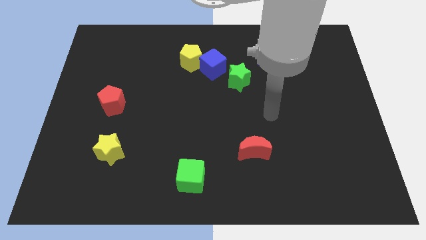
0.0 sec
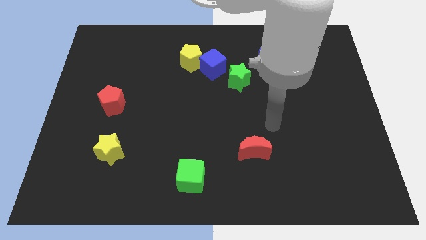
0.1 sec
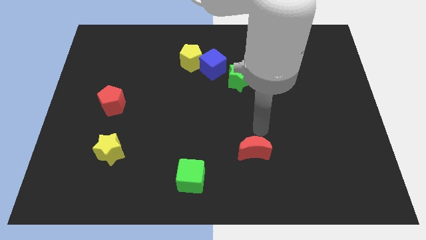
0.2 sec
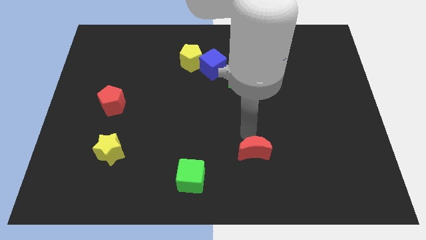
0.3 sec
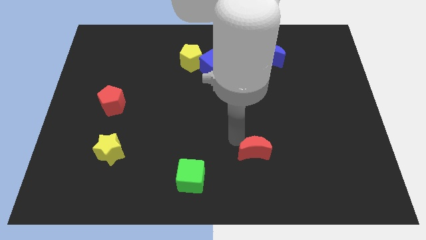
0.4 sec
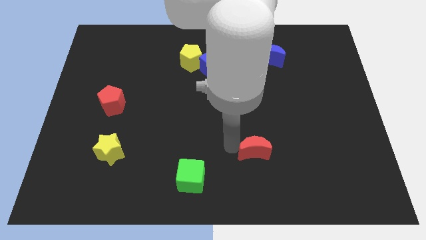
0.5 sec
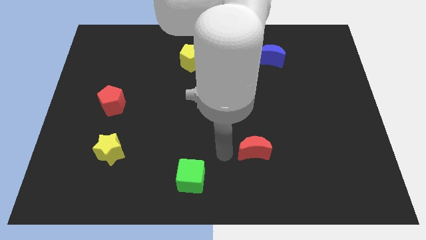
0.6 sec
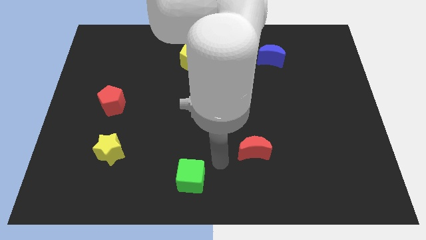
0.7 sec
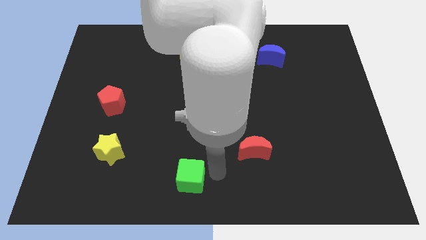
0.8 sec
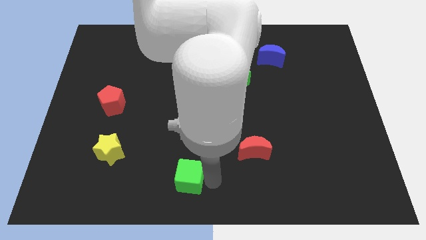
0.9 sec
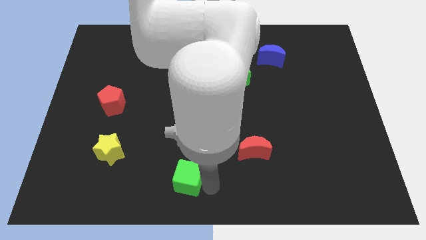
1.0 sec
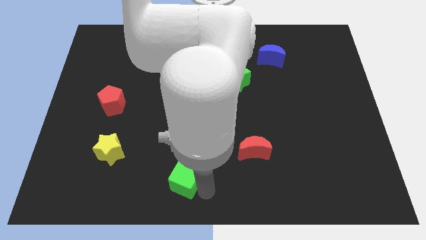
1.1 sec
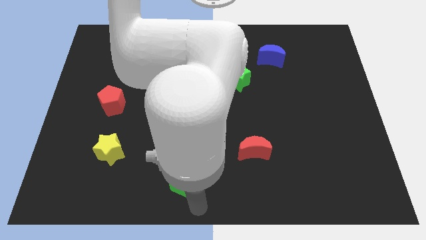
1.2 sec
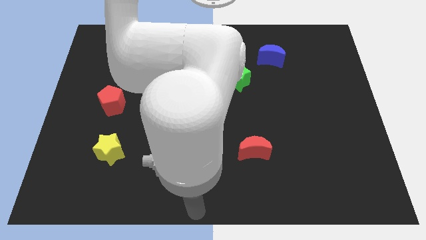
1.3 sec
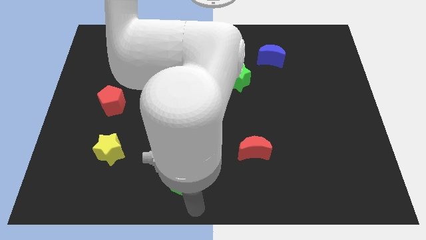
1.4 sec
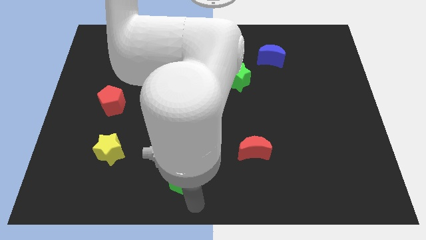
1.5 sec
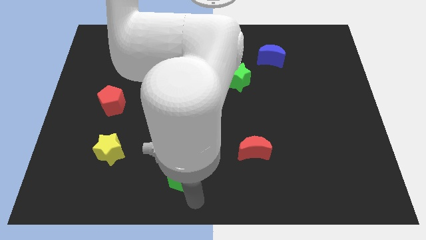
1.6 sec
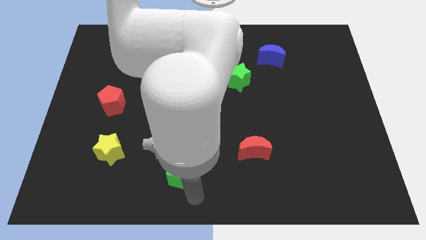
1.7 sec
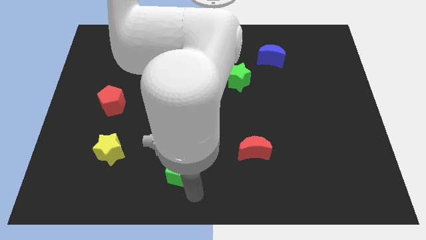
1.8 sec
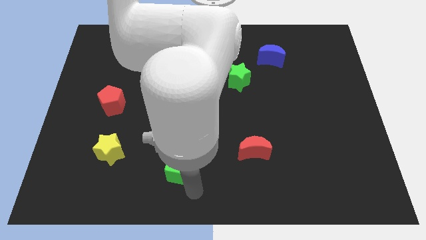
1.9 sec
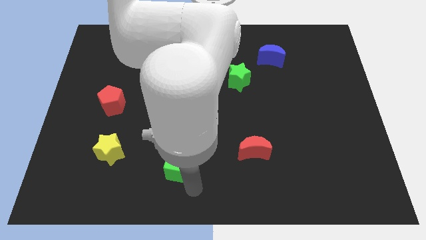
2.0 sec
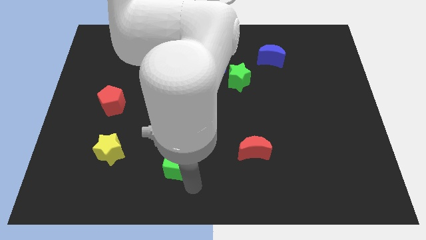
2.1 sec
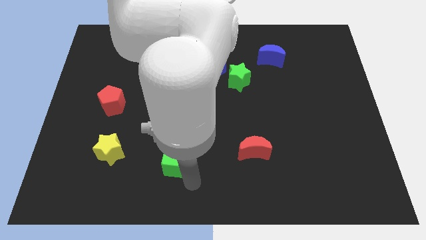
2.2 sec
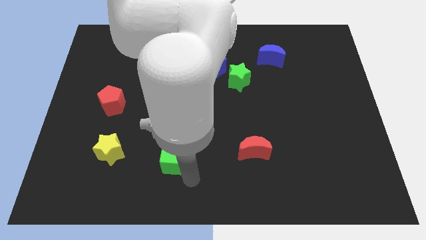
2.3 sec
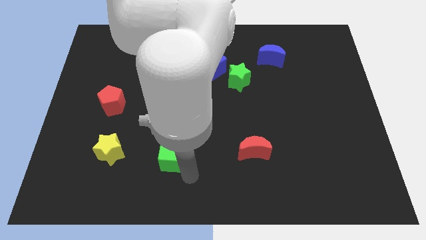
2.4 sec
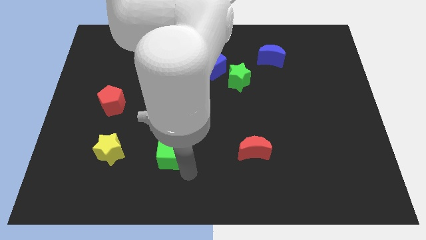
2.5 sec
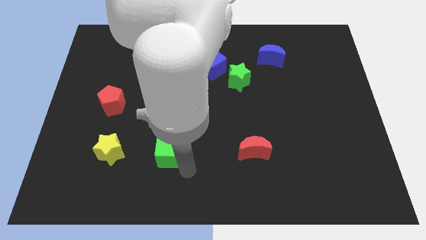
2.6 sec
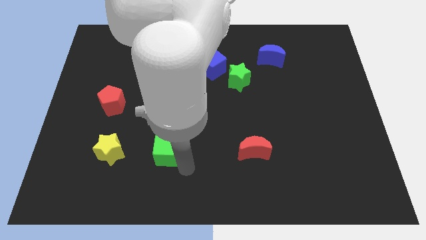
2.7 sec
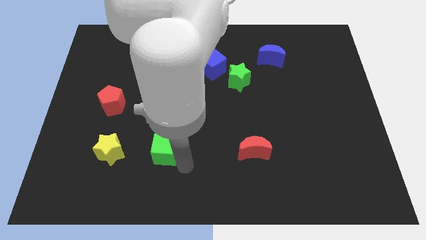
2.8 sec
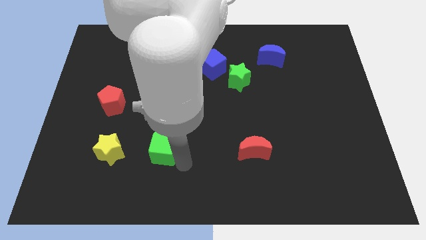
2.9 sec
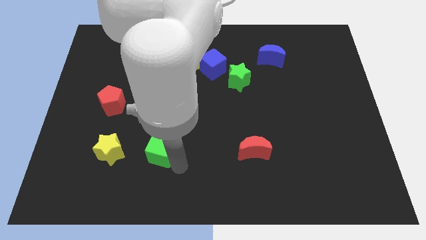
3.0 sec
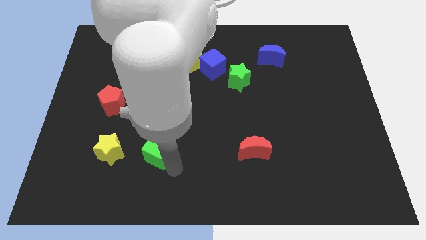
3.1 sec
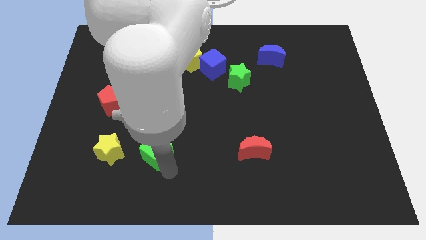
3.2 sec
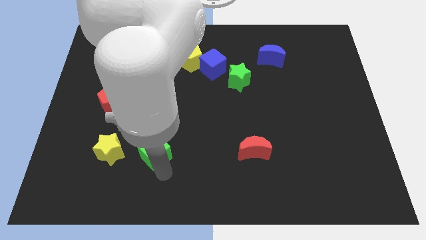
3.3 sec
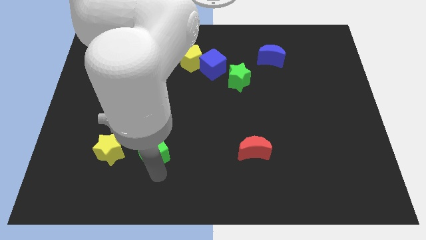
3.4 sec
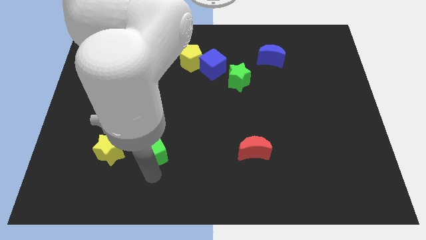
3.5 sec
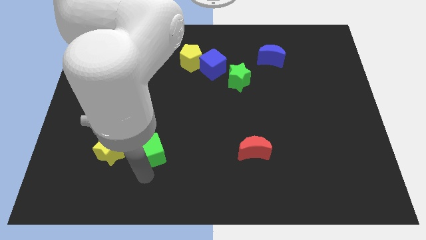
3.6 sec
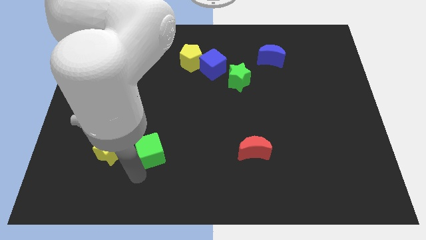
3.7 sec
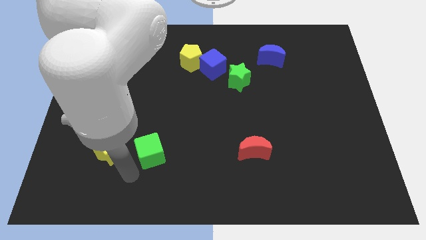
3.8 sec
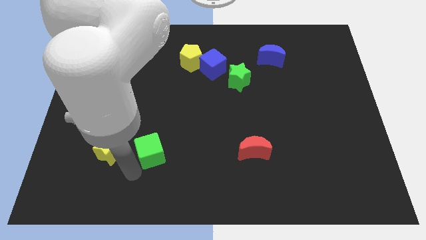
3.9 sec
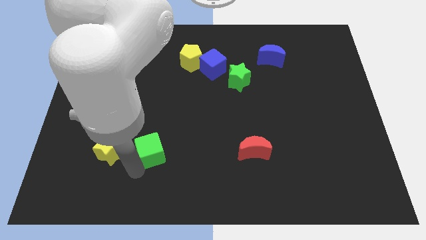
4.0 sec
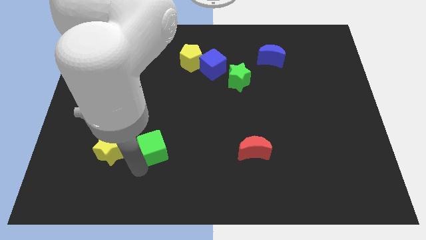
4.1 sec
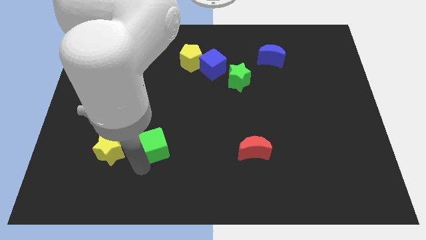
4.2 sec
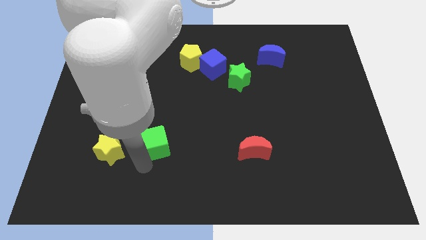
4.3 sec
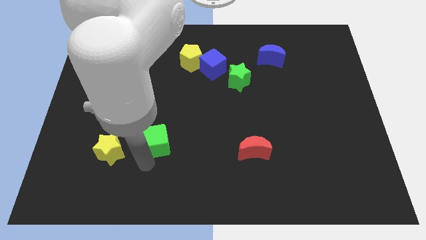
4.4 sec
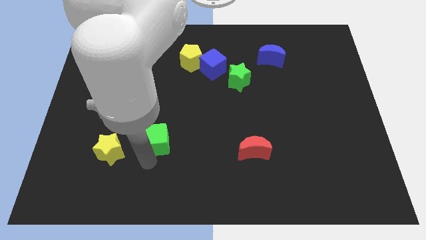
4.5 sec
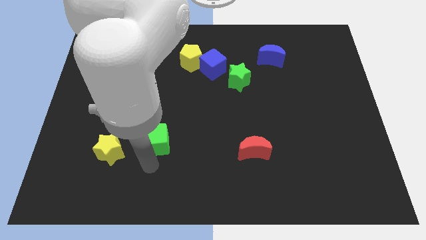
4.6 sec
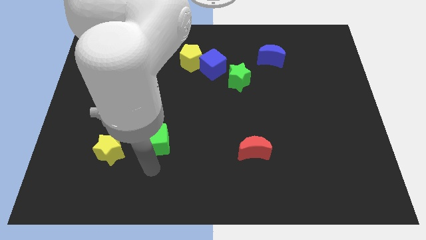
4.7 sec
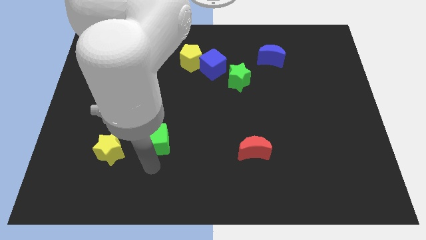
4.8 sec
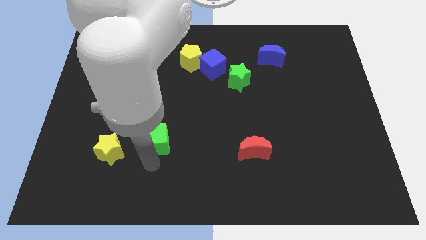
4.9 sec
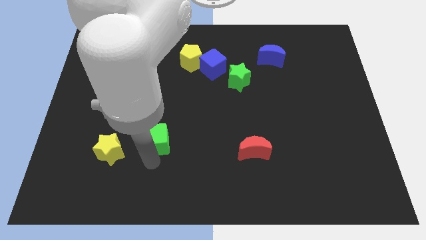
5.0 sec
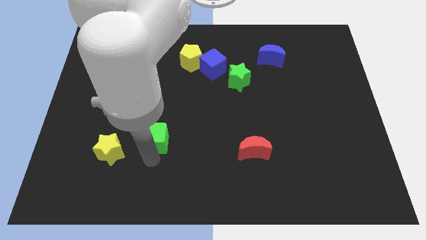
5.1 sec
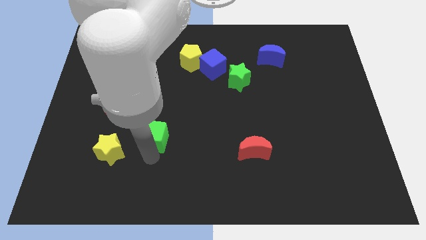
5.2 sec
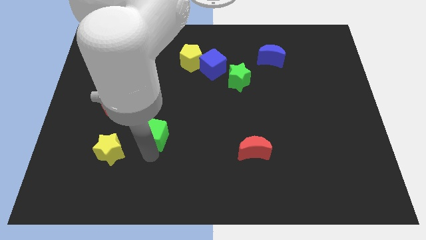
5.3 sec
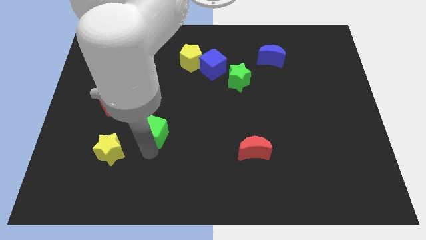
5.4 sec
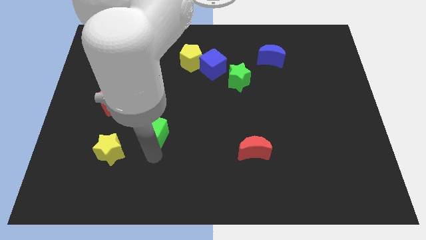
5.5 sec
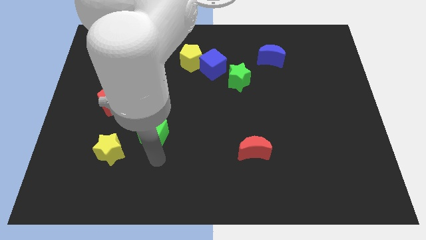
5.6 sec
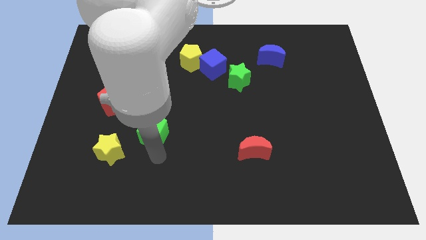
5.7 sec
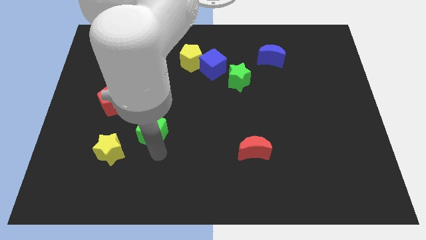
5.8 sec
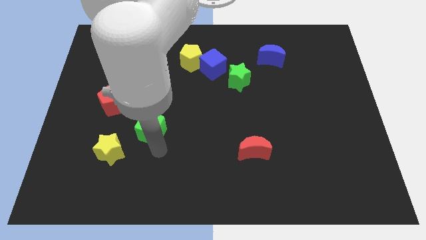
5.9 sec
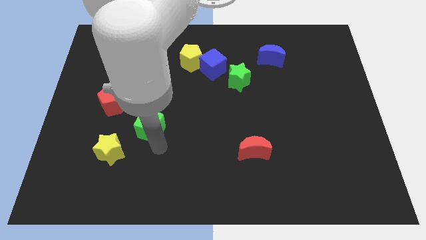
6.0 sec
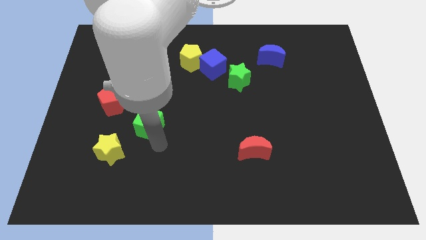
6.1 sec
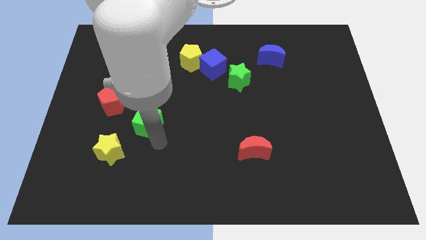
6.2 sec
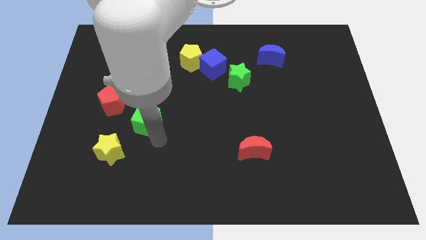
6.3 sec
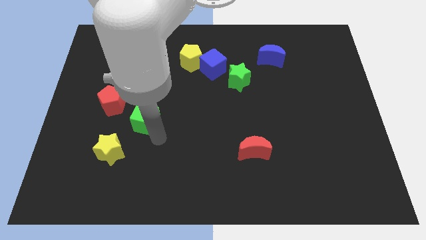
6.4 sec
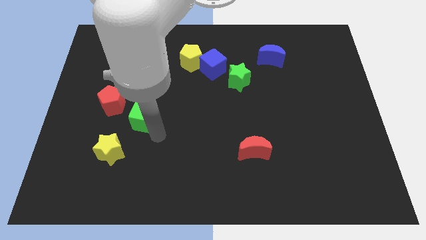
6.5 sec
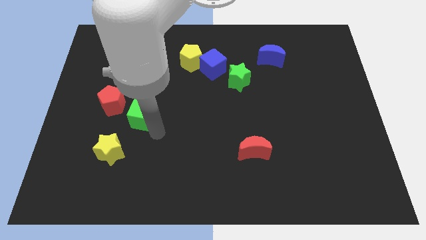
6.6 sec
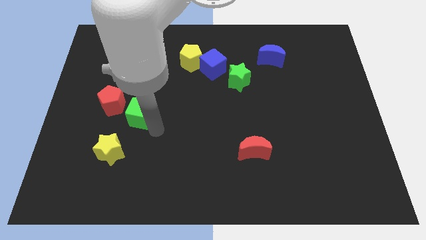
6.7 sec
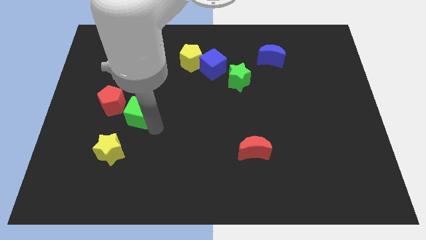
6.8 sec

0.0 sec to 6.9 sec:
move the green cube diagonally upwards and left

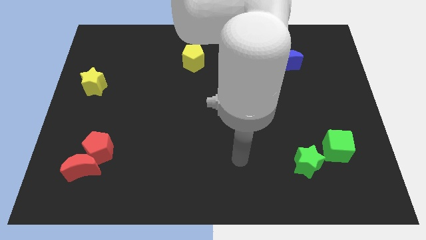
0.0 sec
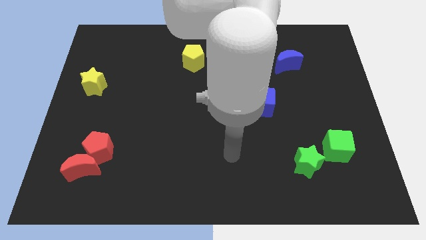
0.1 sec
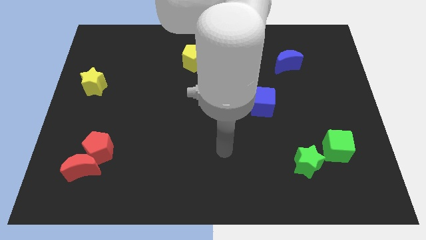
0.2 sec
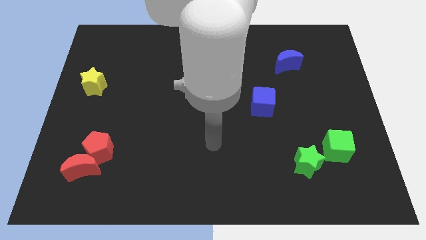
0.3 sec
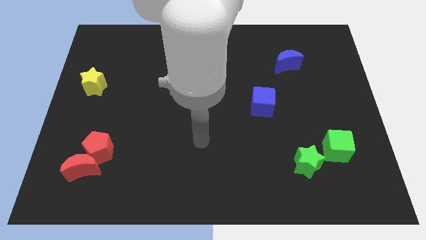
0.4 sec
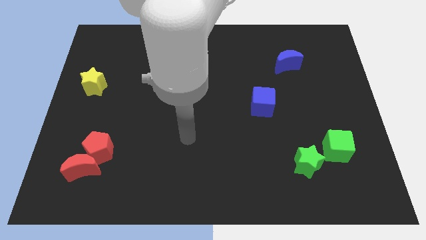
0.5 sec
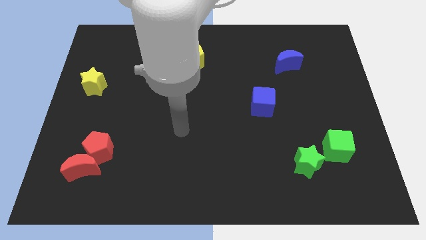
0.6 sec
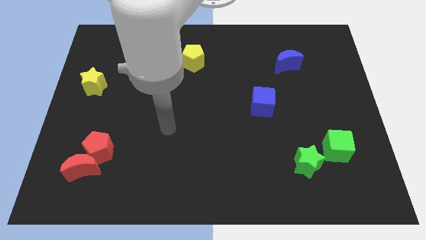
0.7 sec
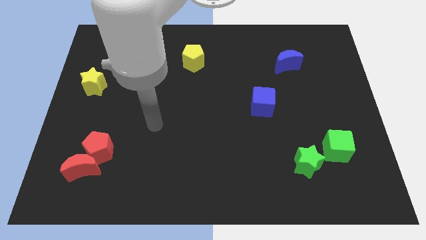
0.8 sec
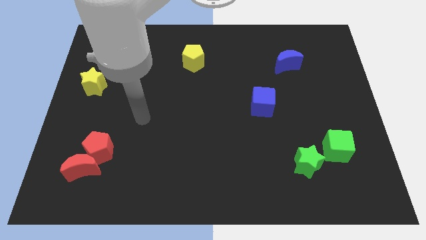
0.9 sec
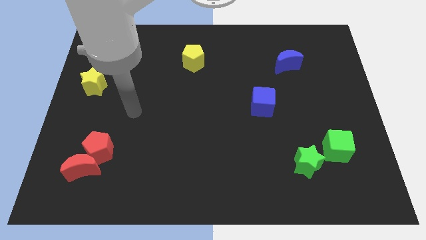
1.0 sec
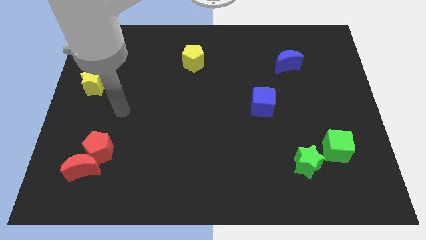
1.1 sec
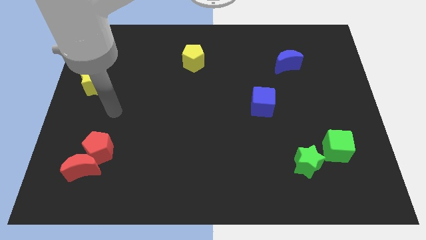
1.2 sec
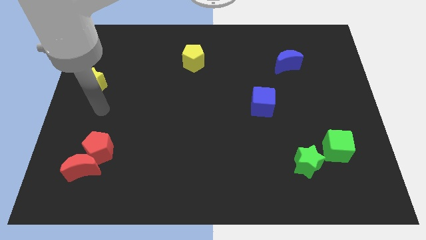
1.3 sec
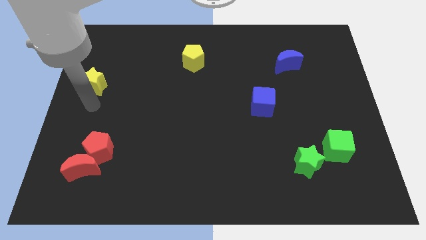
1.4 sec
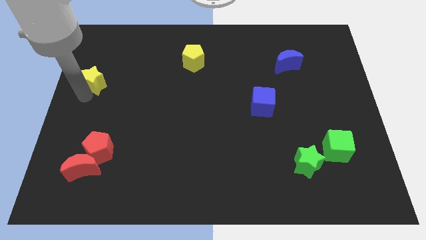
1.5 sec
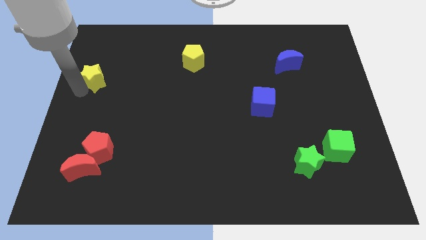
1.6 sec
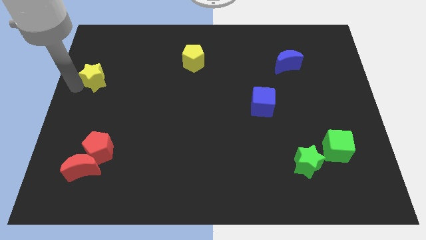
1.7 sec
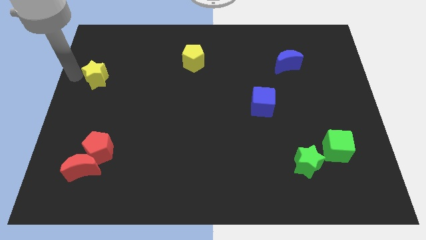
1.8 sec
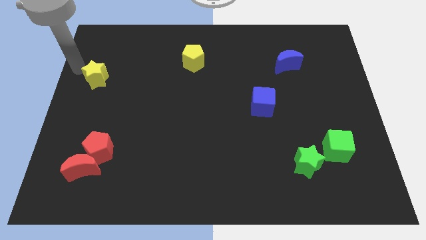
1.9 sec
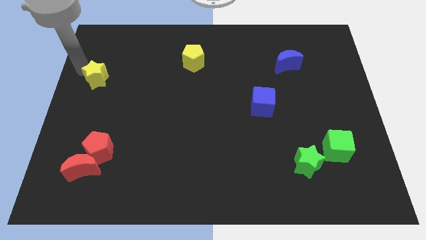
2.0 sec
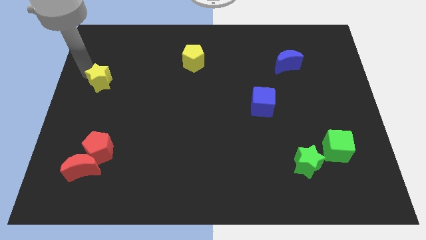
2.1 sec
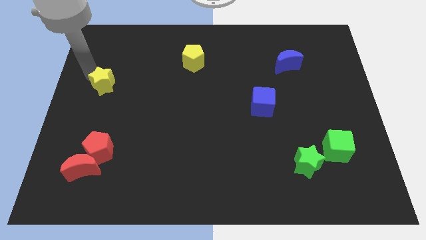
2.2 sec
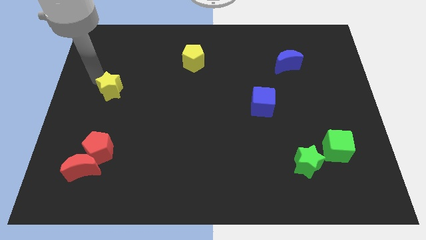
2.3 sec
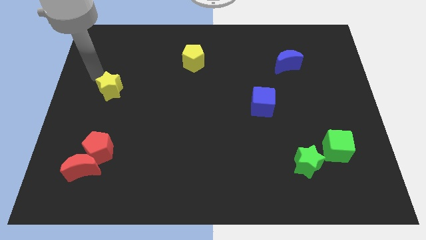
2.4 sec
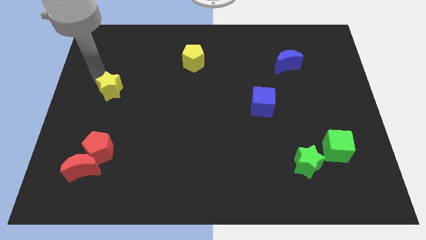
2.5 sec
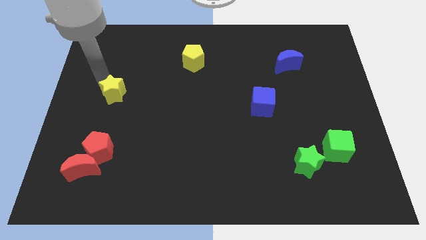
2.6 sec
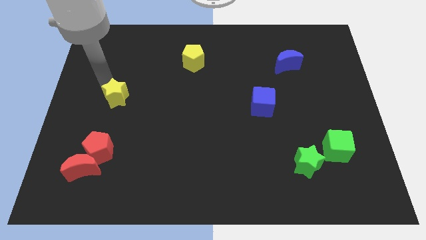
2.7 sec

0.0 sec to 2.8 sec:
slide the yellow star a little bit down and to the right diagonally
